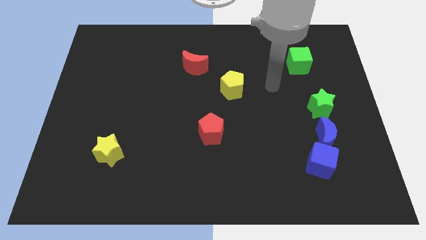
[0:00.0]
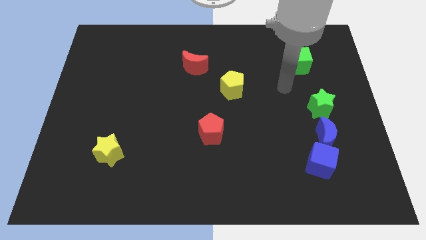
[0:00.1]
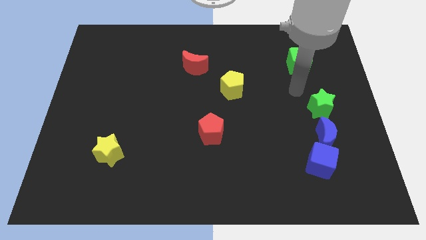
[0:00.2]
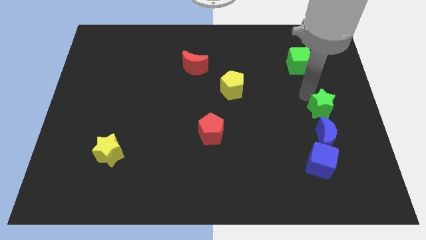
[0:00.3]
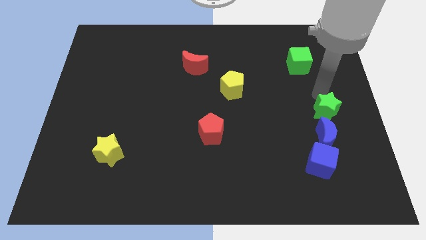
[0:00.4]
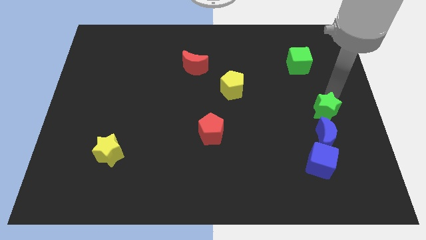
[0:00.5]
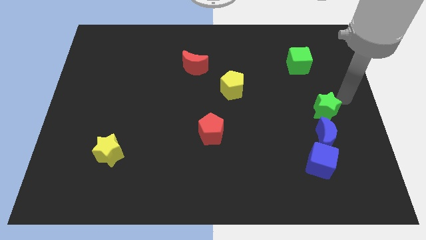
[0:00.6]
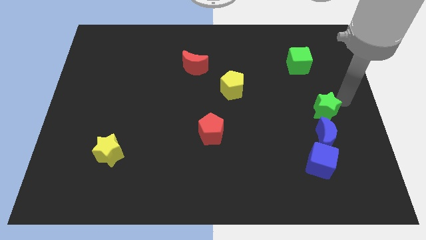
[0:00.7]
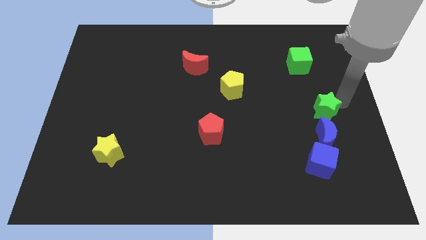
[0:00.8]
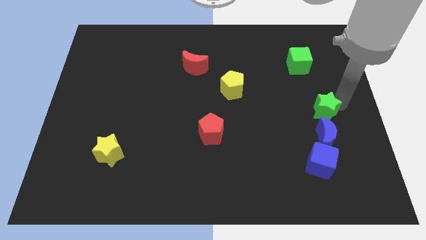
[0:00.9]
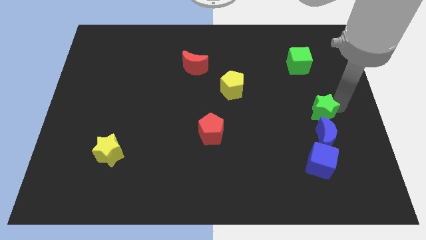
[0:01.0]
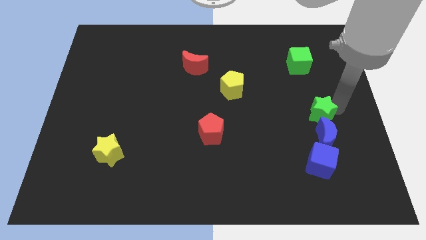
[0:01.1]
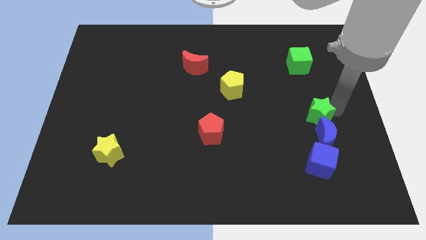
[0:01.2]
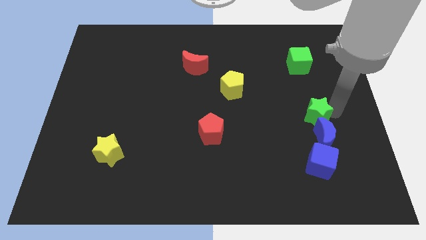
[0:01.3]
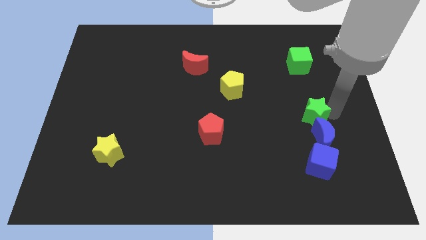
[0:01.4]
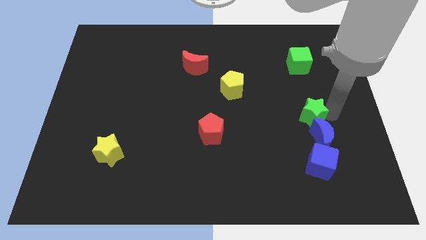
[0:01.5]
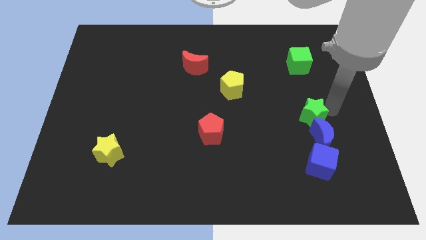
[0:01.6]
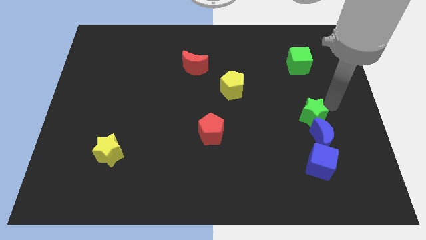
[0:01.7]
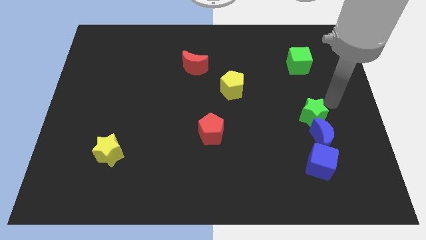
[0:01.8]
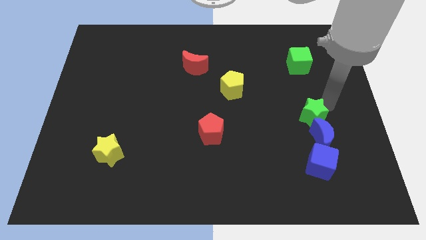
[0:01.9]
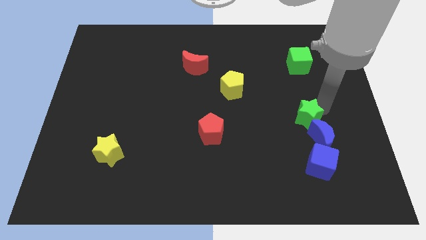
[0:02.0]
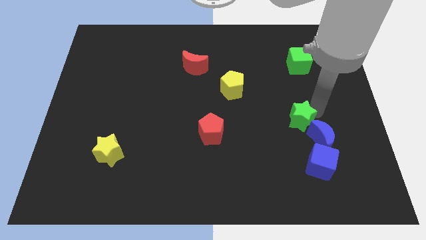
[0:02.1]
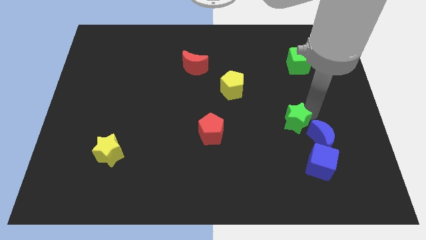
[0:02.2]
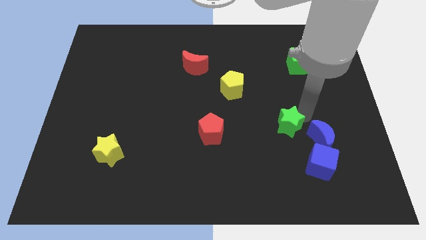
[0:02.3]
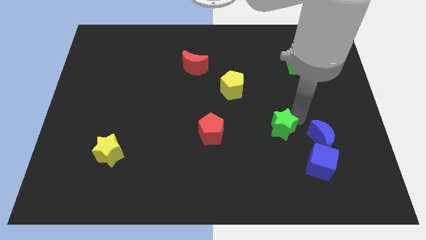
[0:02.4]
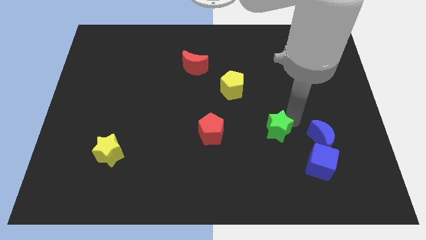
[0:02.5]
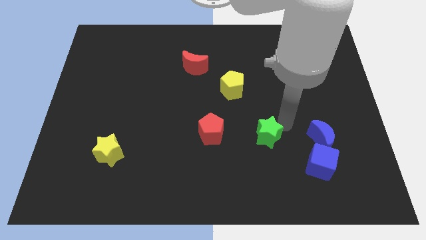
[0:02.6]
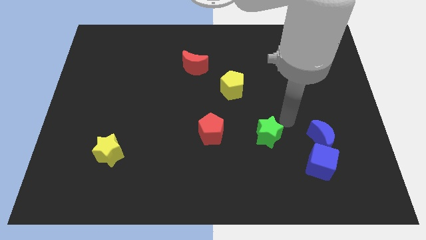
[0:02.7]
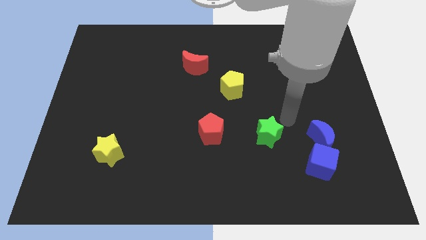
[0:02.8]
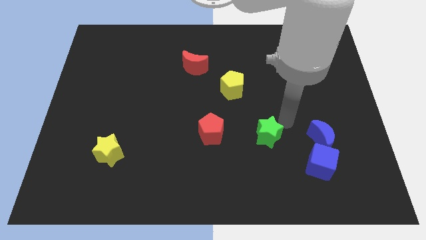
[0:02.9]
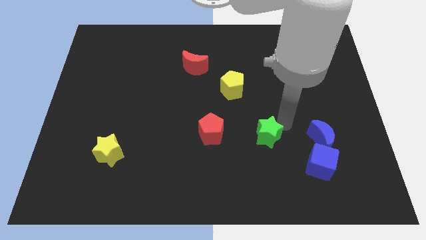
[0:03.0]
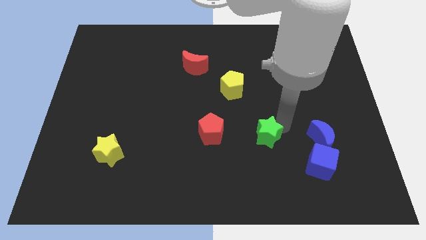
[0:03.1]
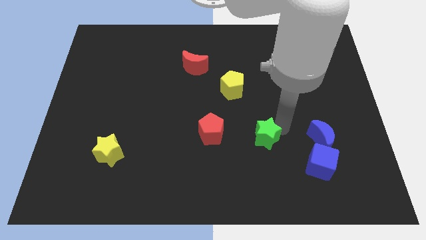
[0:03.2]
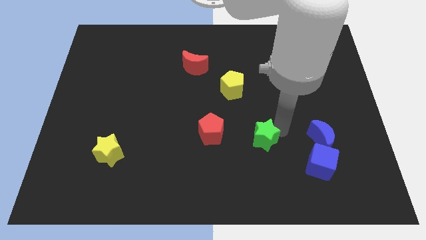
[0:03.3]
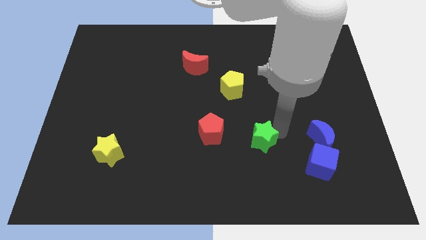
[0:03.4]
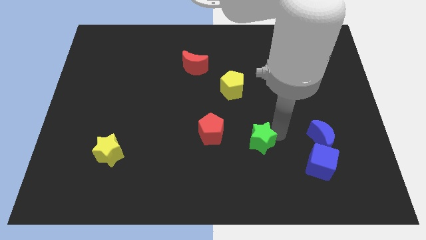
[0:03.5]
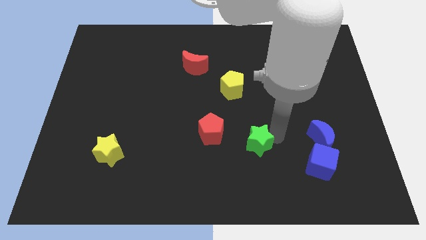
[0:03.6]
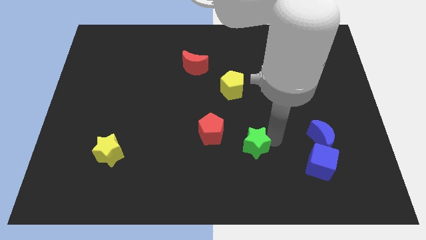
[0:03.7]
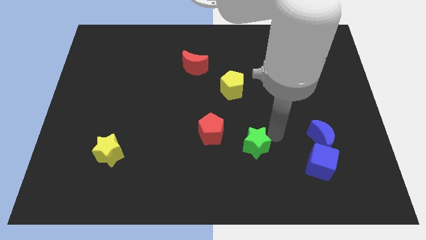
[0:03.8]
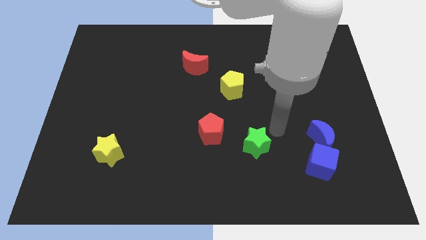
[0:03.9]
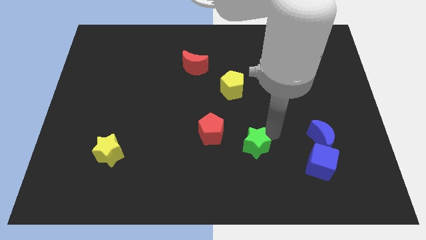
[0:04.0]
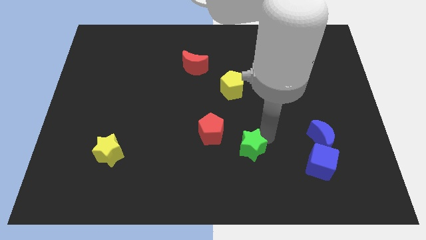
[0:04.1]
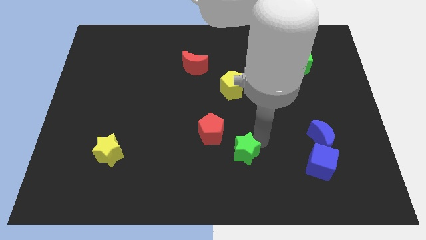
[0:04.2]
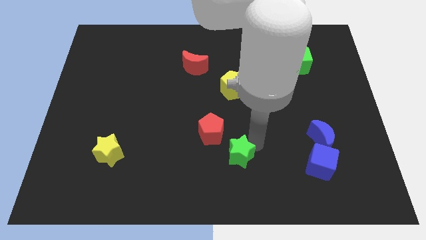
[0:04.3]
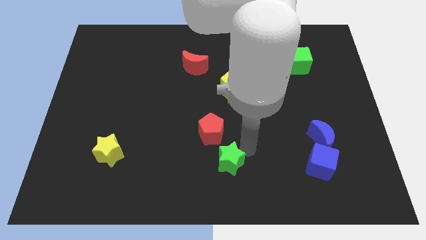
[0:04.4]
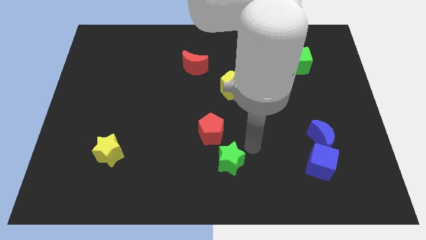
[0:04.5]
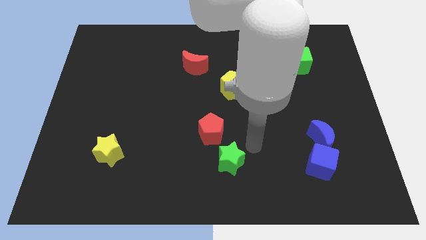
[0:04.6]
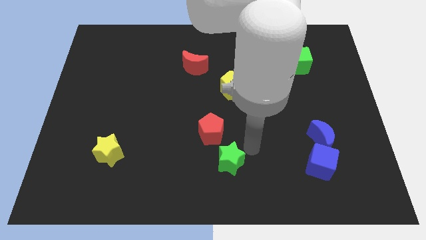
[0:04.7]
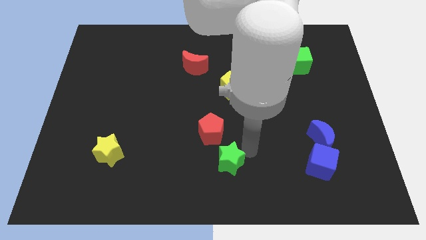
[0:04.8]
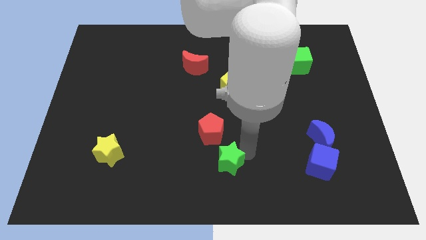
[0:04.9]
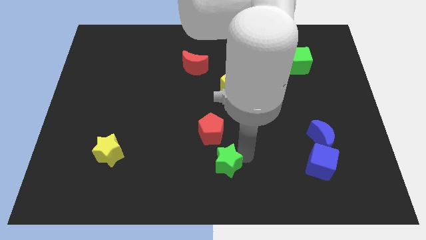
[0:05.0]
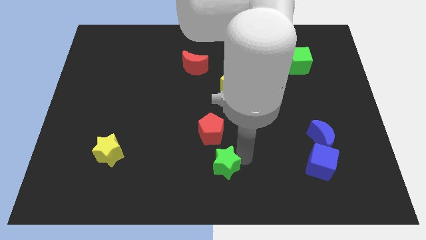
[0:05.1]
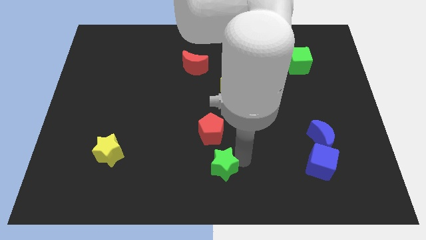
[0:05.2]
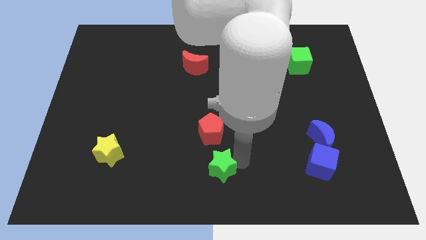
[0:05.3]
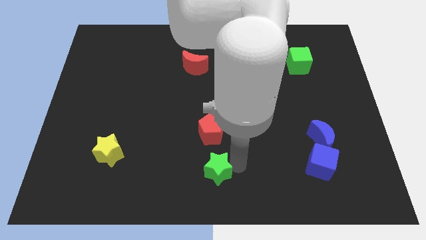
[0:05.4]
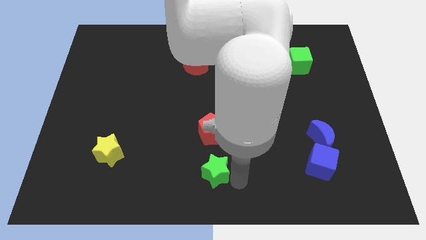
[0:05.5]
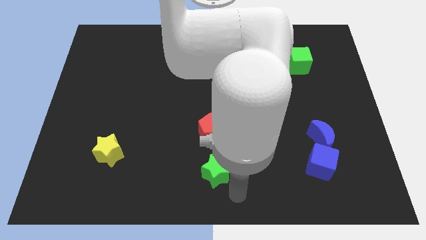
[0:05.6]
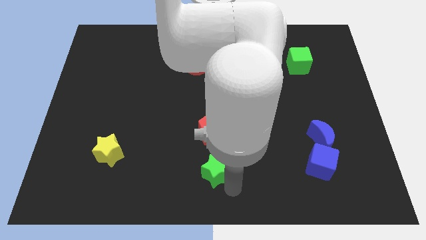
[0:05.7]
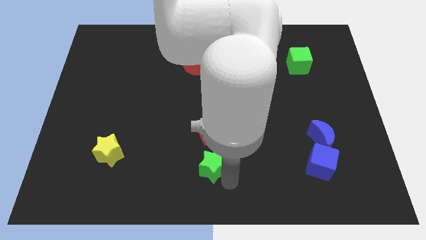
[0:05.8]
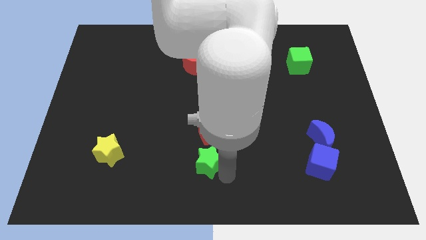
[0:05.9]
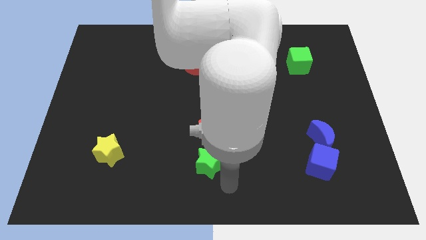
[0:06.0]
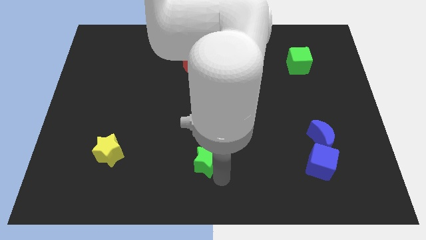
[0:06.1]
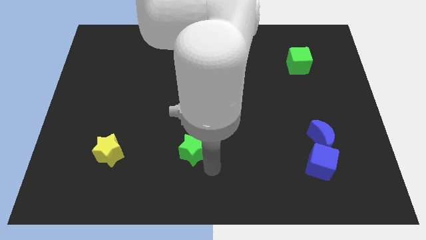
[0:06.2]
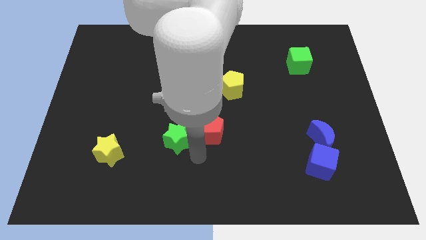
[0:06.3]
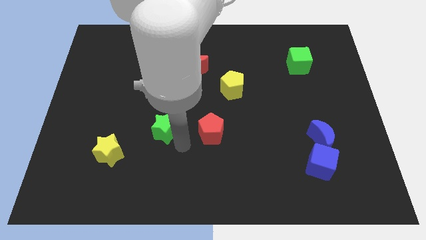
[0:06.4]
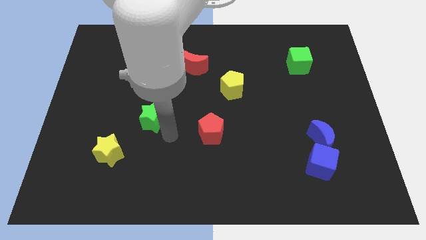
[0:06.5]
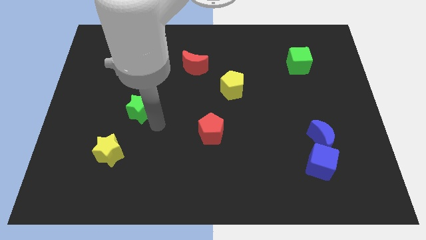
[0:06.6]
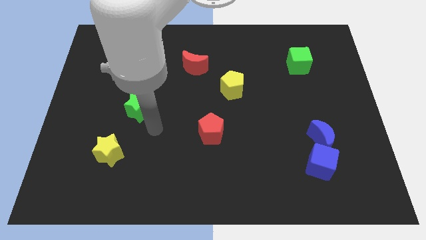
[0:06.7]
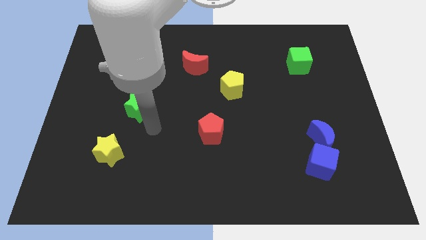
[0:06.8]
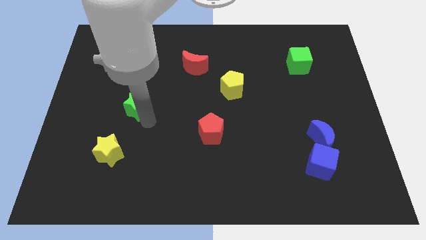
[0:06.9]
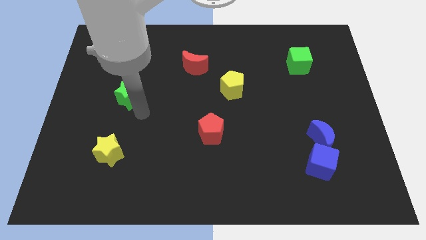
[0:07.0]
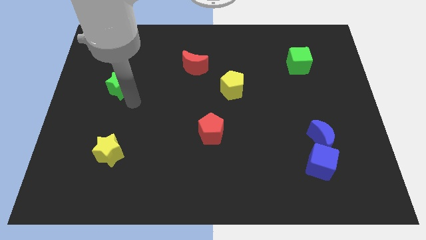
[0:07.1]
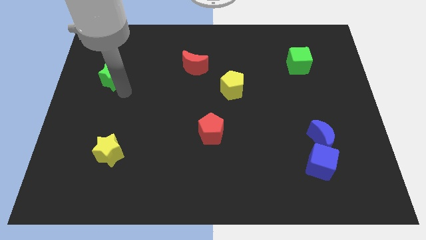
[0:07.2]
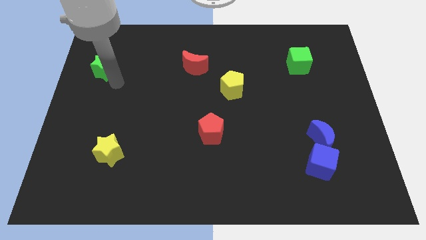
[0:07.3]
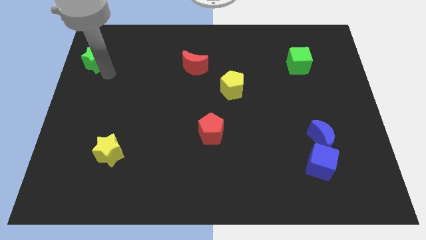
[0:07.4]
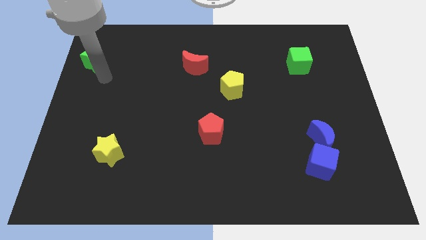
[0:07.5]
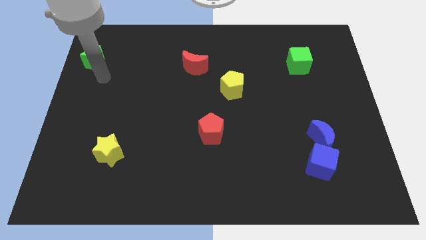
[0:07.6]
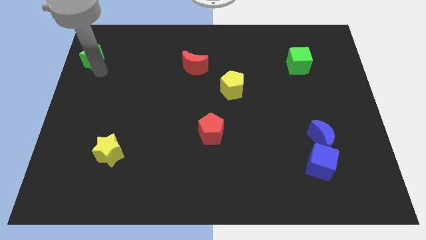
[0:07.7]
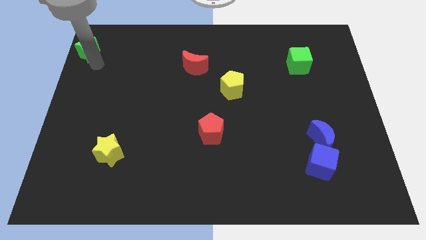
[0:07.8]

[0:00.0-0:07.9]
slide the green star to the top left of the board
